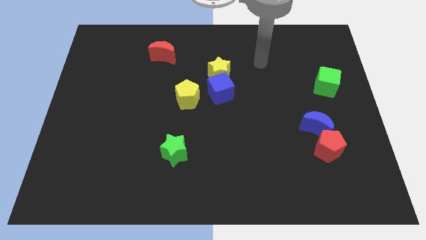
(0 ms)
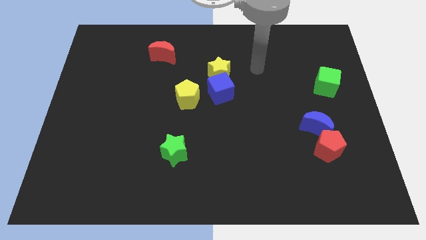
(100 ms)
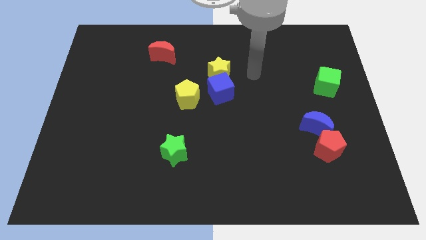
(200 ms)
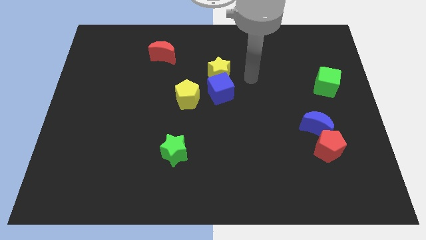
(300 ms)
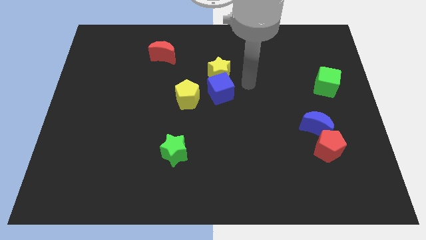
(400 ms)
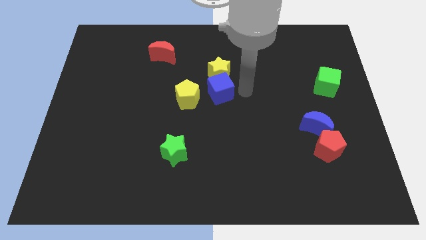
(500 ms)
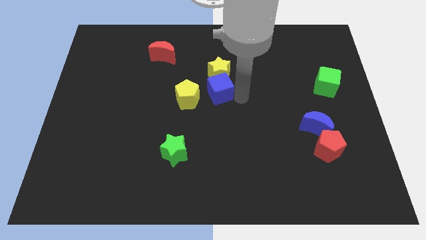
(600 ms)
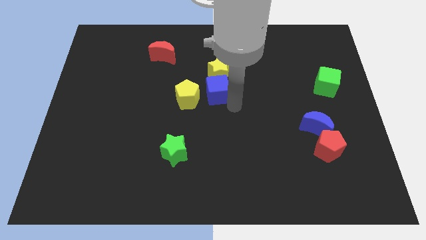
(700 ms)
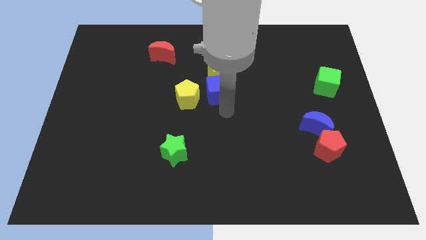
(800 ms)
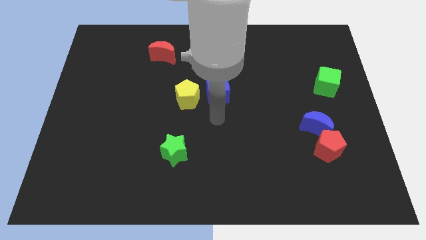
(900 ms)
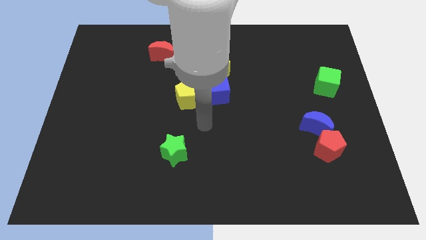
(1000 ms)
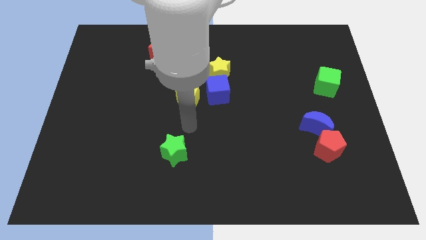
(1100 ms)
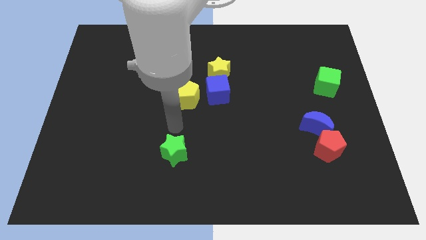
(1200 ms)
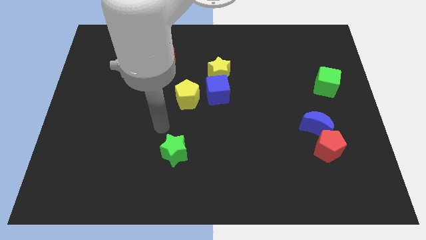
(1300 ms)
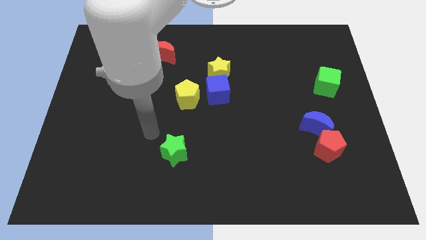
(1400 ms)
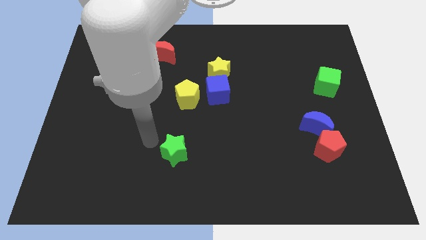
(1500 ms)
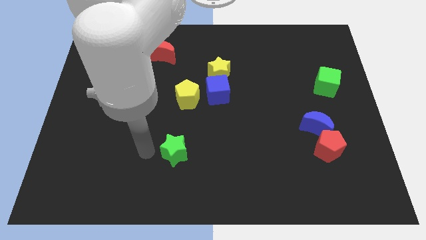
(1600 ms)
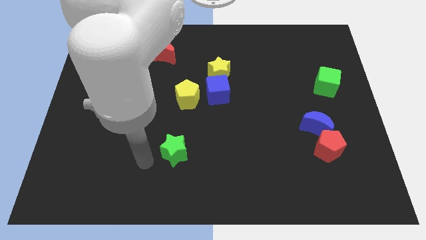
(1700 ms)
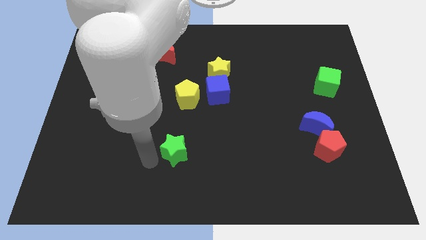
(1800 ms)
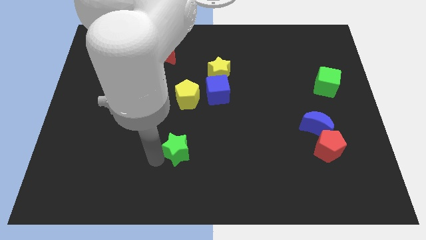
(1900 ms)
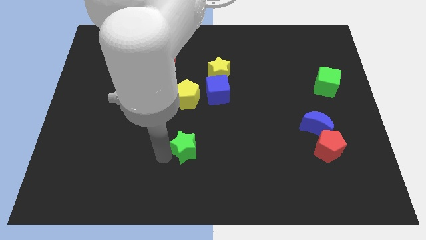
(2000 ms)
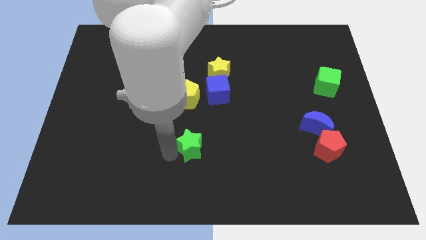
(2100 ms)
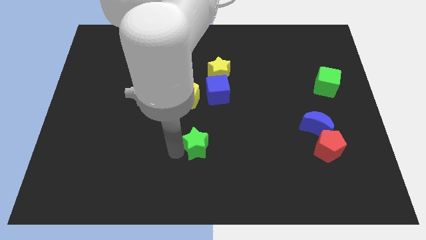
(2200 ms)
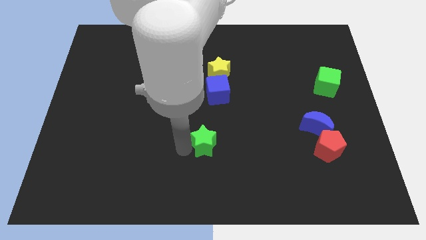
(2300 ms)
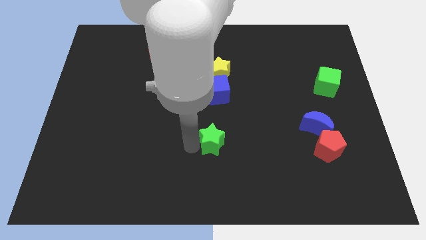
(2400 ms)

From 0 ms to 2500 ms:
push the green star somewhat right

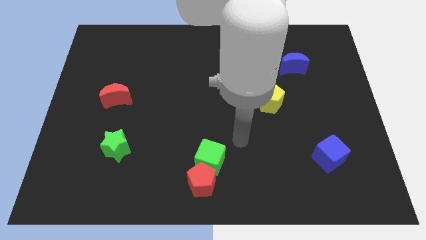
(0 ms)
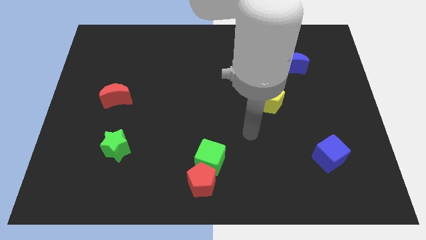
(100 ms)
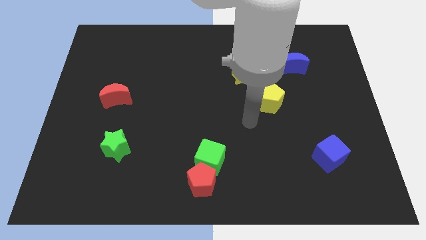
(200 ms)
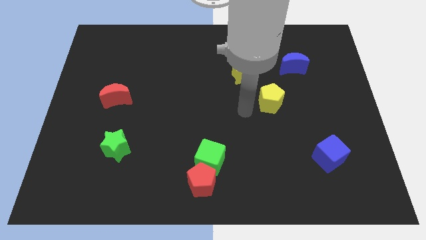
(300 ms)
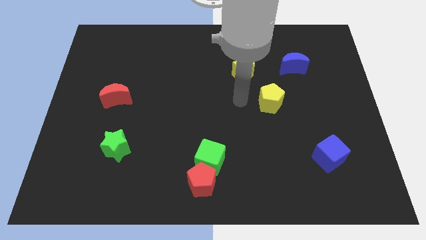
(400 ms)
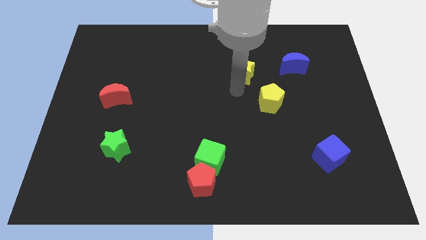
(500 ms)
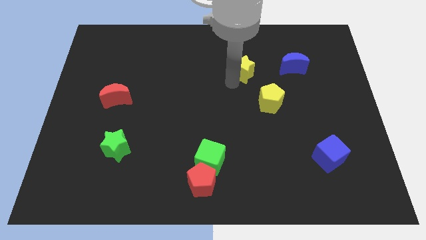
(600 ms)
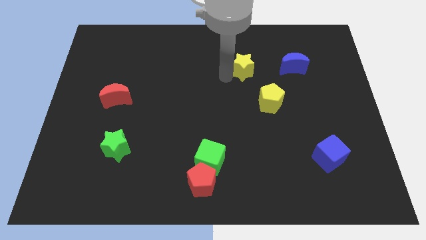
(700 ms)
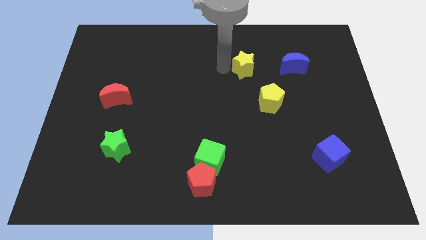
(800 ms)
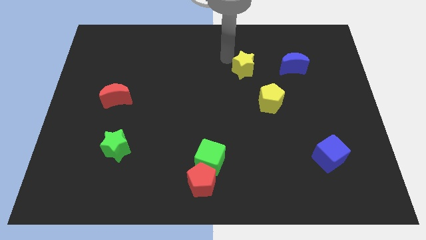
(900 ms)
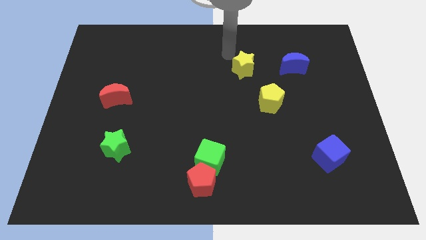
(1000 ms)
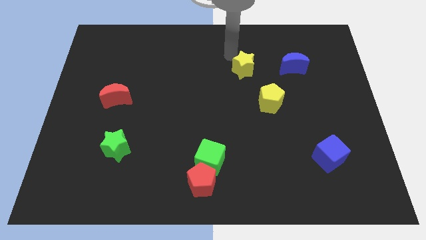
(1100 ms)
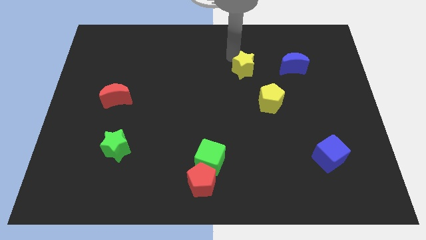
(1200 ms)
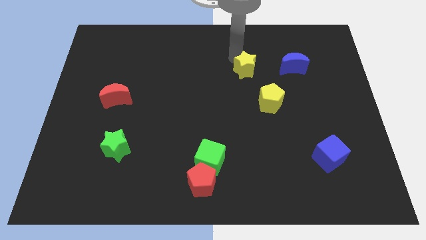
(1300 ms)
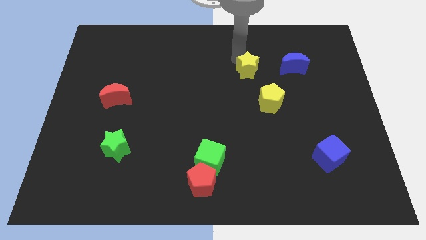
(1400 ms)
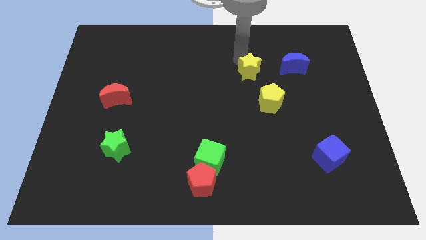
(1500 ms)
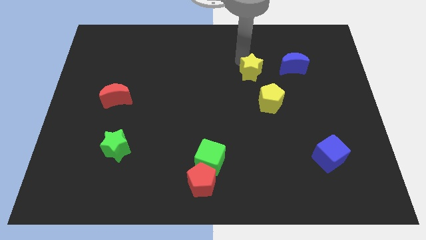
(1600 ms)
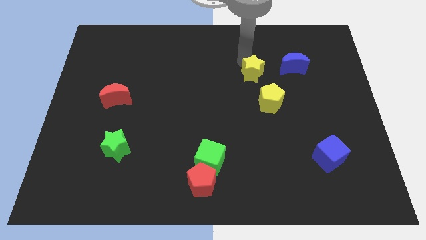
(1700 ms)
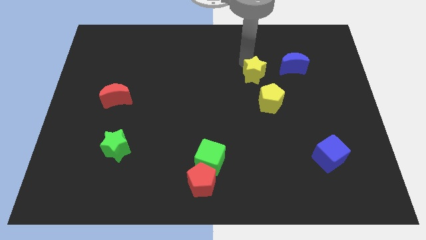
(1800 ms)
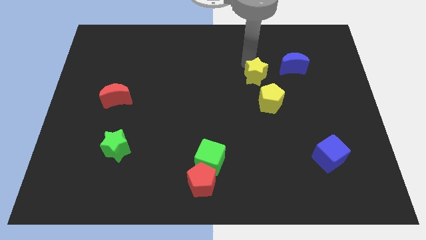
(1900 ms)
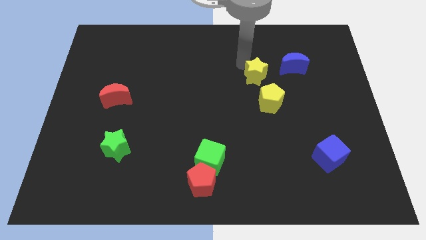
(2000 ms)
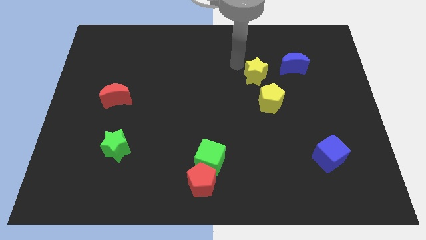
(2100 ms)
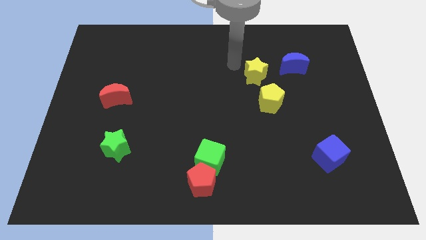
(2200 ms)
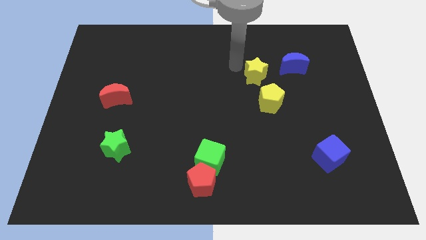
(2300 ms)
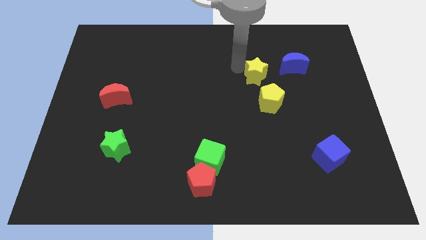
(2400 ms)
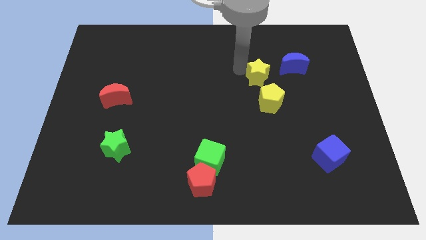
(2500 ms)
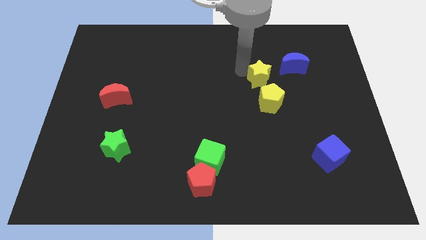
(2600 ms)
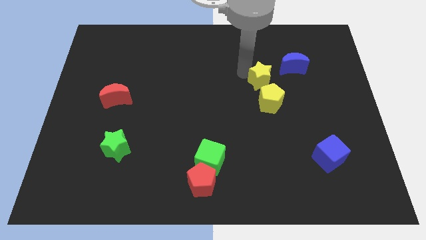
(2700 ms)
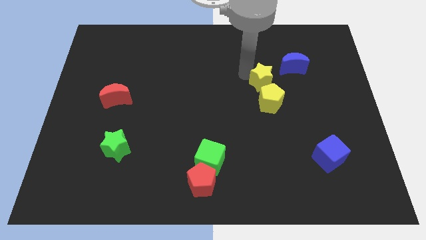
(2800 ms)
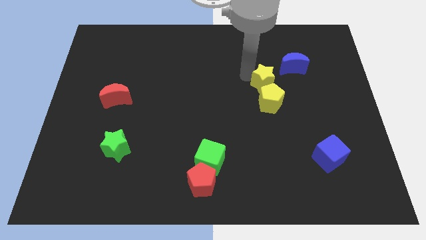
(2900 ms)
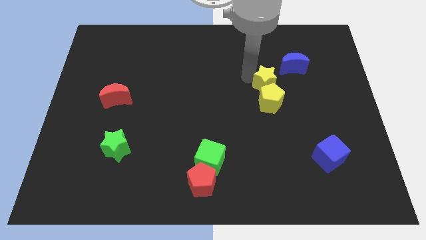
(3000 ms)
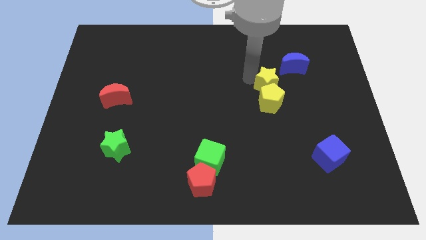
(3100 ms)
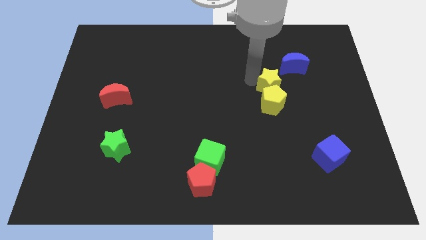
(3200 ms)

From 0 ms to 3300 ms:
slightly slide the yellow star diagonally down and to the right

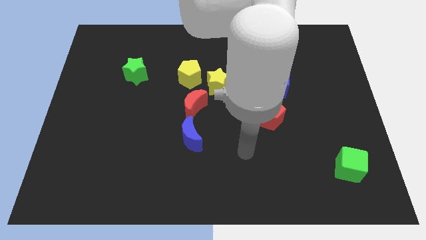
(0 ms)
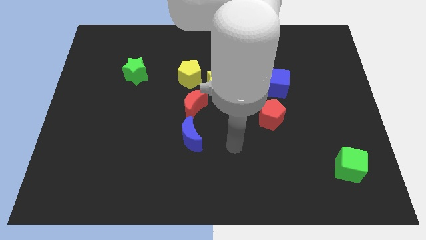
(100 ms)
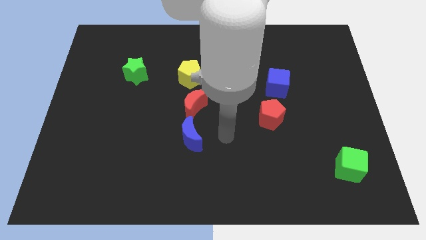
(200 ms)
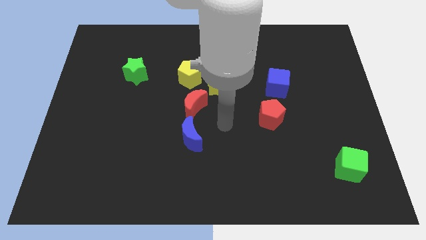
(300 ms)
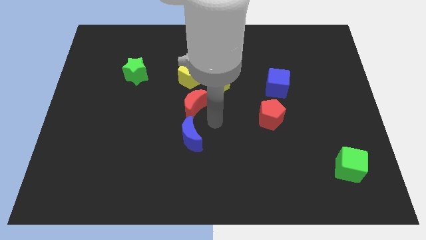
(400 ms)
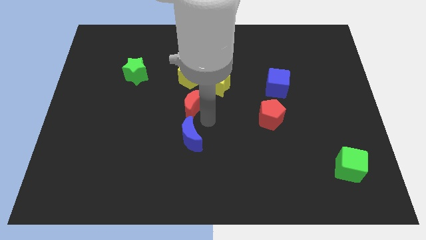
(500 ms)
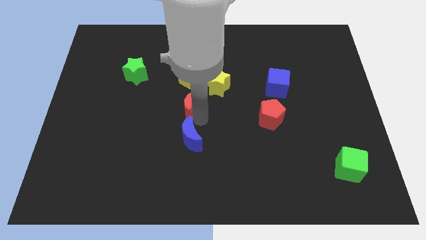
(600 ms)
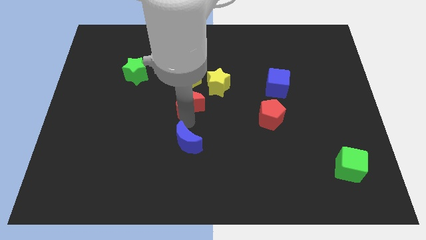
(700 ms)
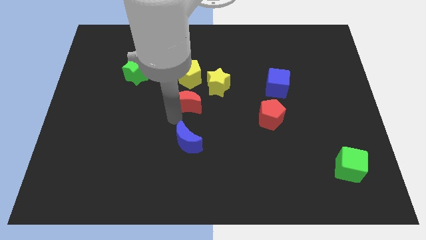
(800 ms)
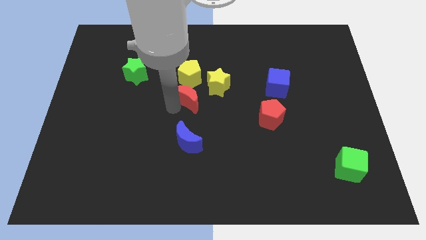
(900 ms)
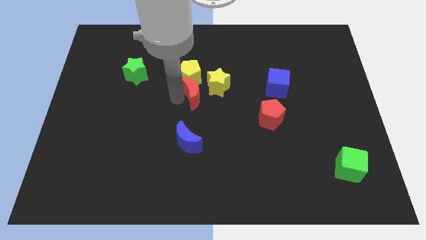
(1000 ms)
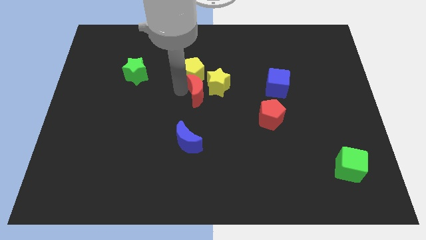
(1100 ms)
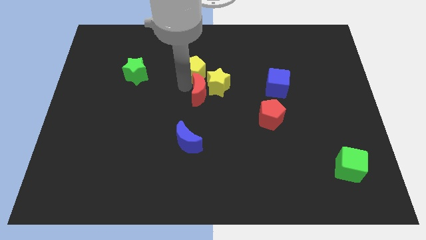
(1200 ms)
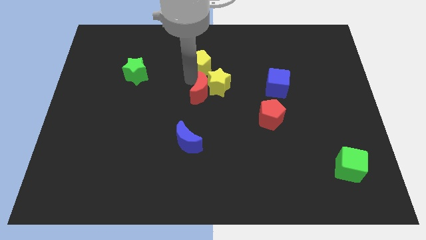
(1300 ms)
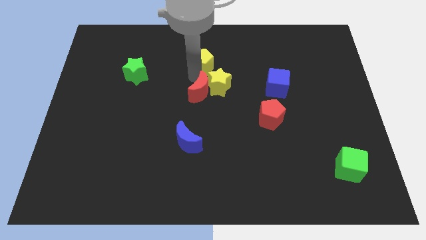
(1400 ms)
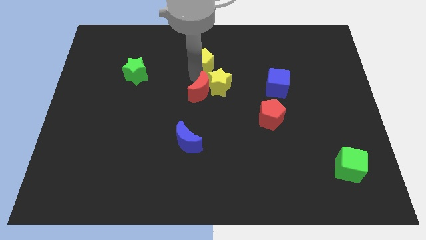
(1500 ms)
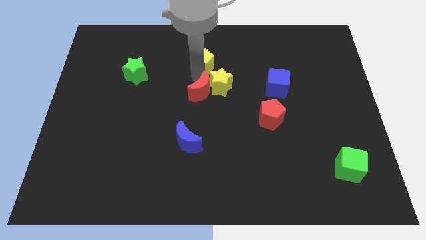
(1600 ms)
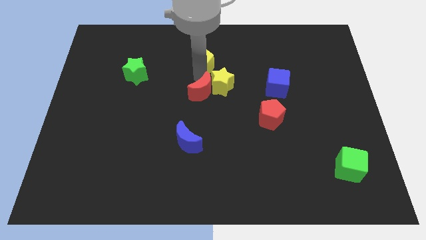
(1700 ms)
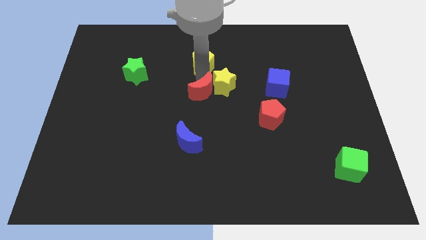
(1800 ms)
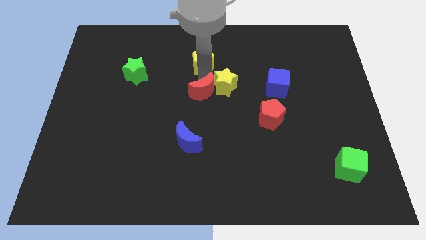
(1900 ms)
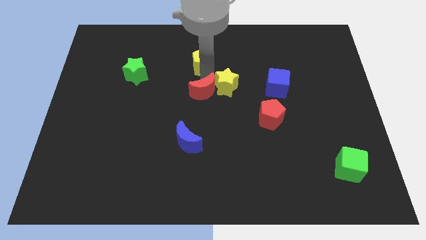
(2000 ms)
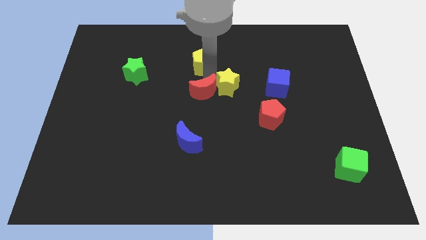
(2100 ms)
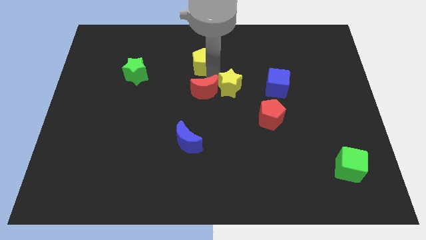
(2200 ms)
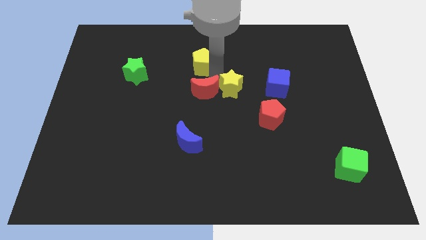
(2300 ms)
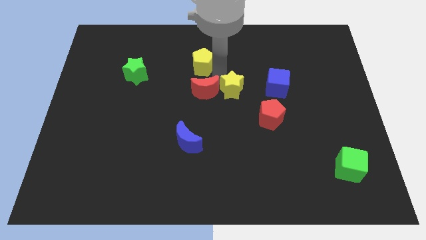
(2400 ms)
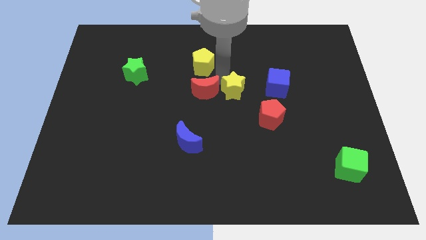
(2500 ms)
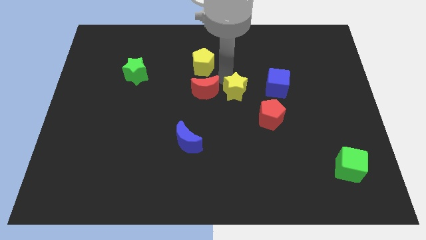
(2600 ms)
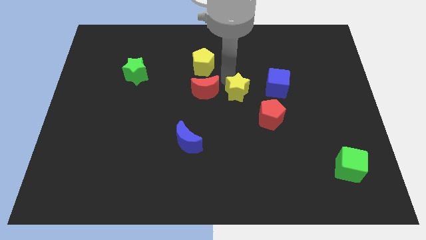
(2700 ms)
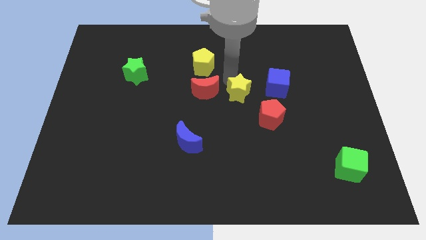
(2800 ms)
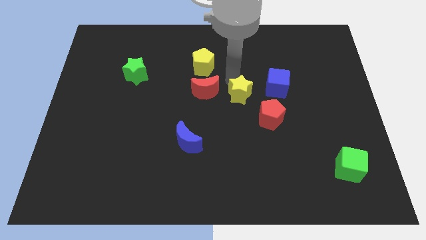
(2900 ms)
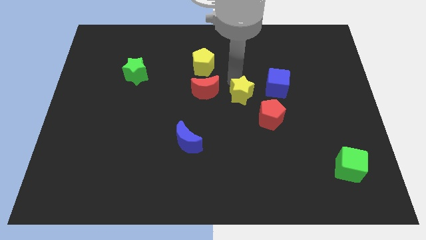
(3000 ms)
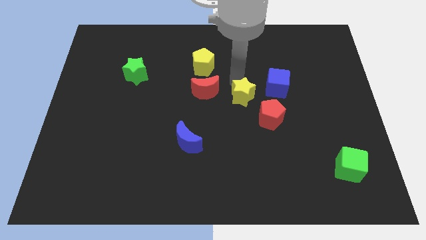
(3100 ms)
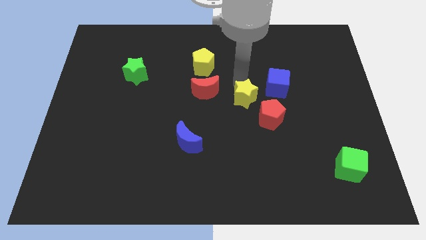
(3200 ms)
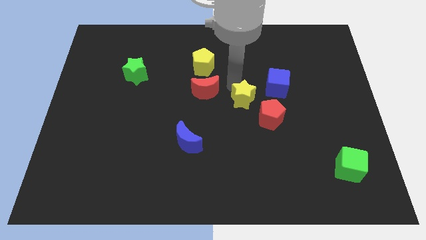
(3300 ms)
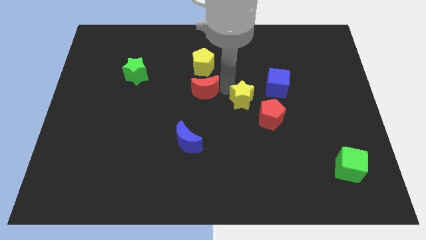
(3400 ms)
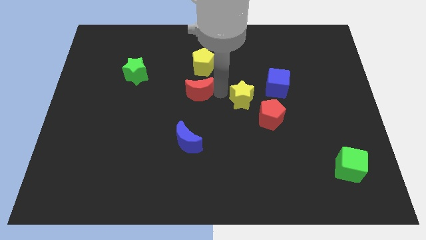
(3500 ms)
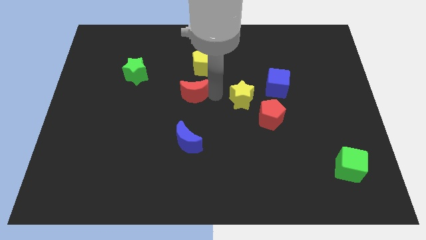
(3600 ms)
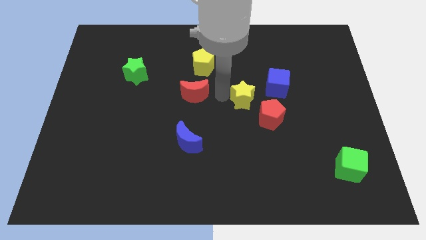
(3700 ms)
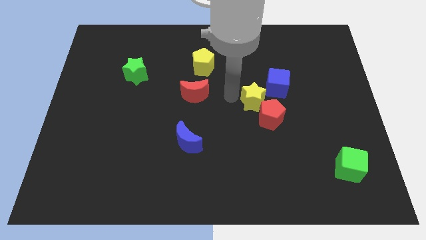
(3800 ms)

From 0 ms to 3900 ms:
move the yellow star to the right a little
